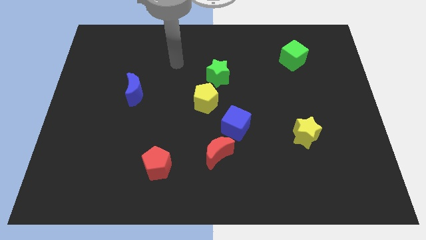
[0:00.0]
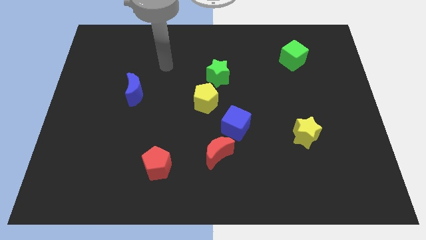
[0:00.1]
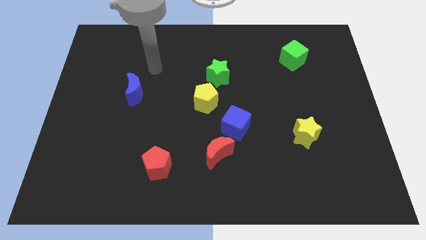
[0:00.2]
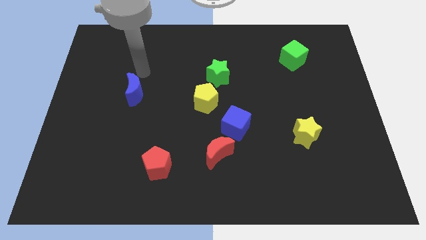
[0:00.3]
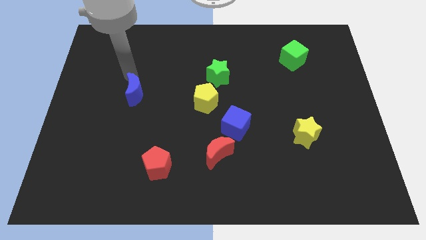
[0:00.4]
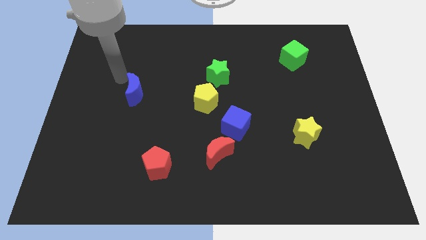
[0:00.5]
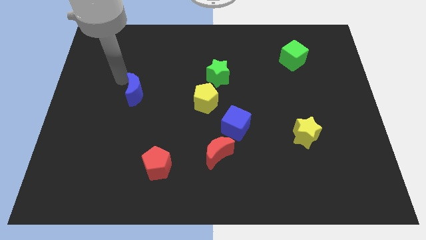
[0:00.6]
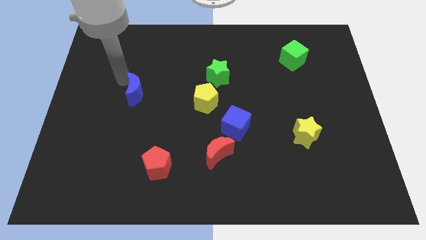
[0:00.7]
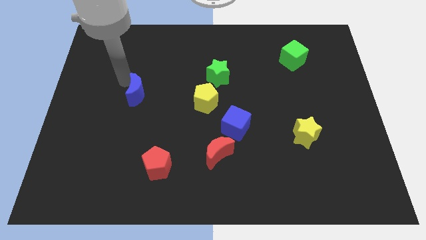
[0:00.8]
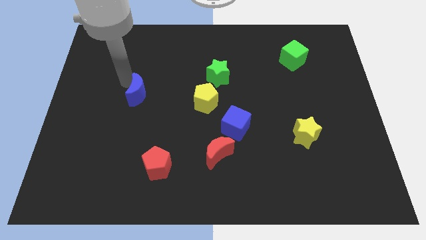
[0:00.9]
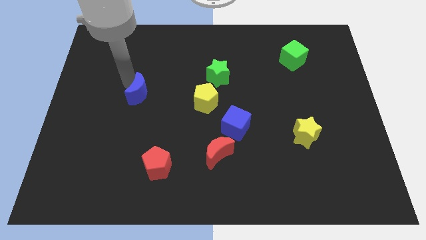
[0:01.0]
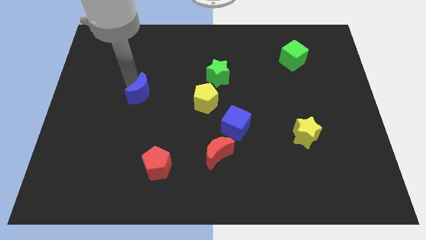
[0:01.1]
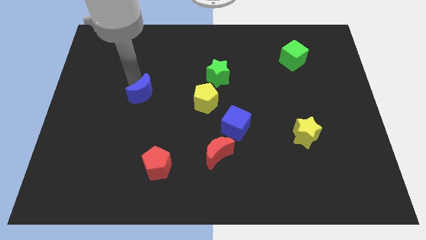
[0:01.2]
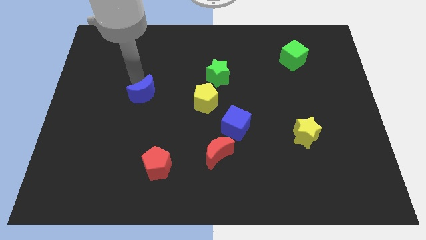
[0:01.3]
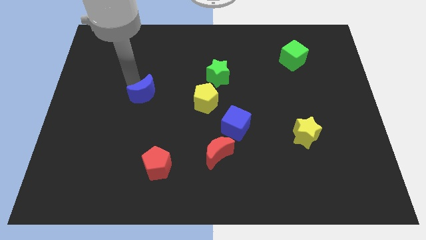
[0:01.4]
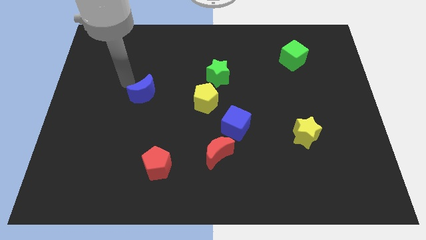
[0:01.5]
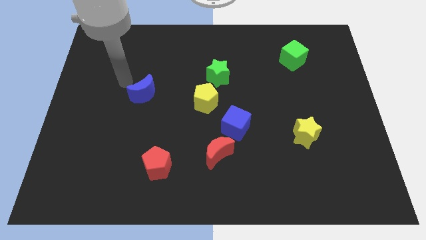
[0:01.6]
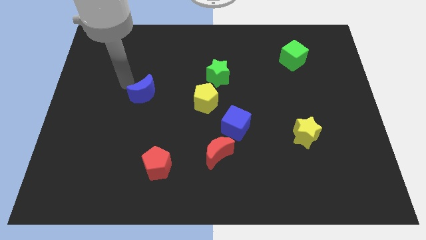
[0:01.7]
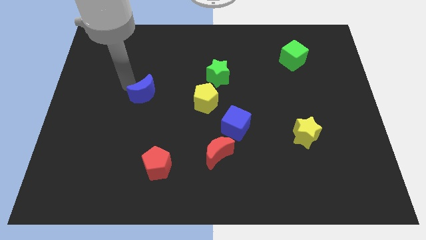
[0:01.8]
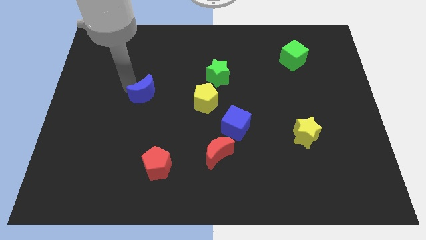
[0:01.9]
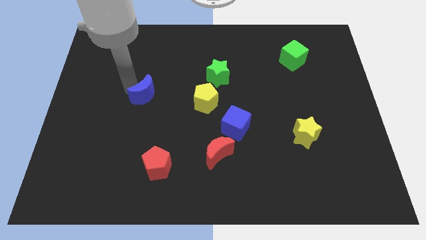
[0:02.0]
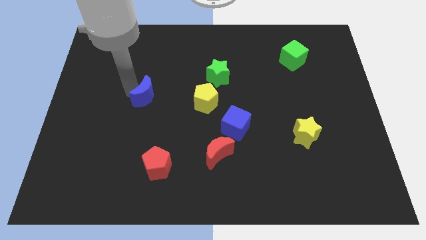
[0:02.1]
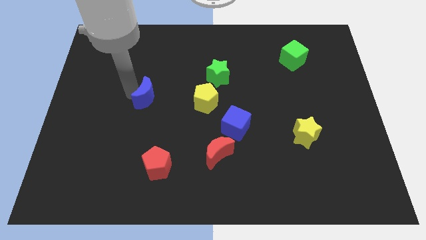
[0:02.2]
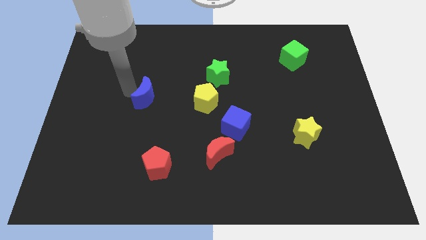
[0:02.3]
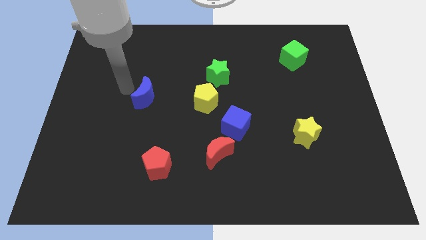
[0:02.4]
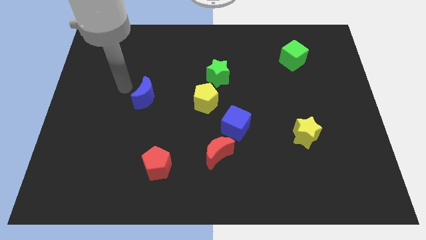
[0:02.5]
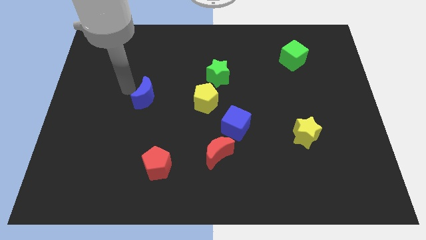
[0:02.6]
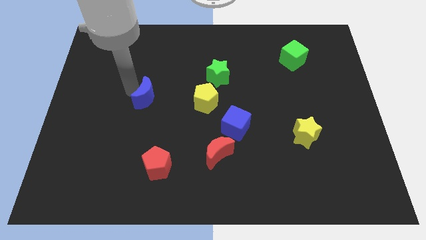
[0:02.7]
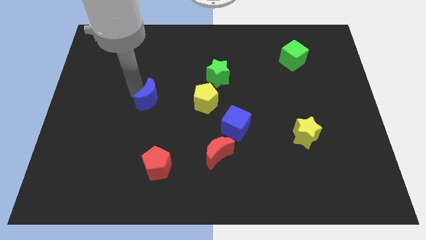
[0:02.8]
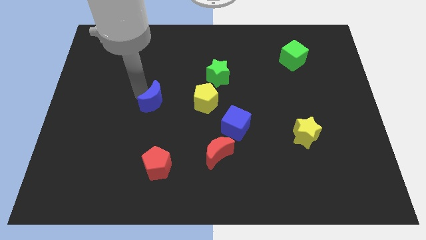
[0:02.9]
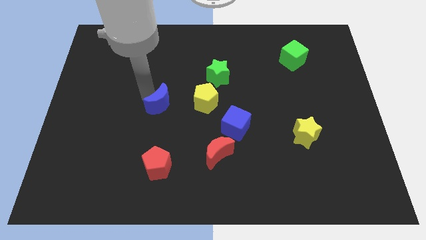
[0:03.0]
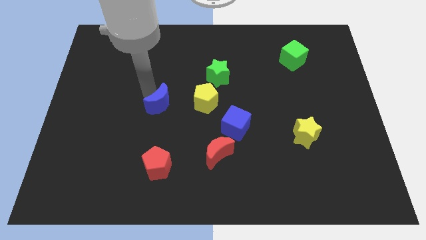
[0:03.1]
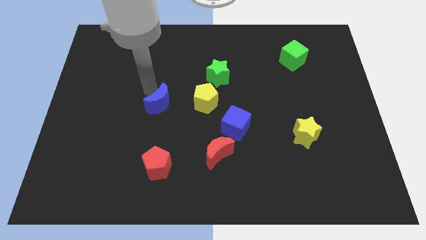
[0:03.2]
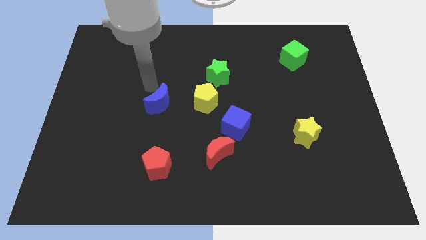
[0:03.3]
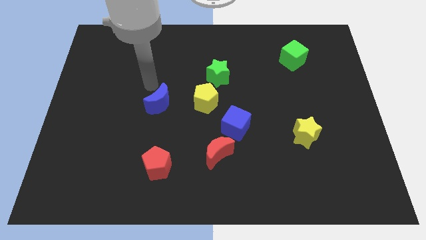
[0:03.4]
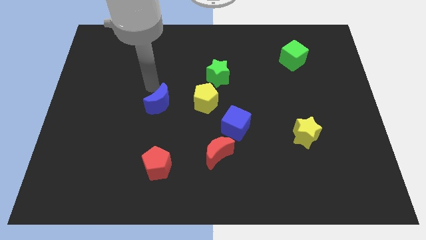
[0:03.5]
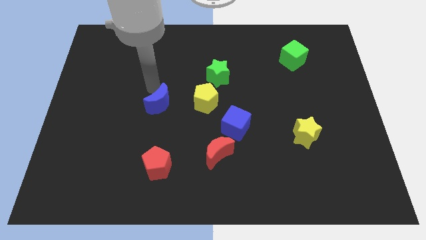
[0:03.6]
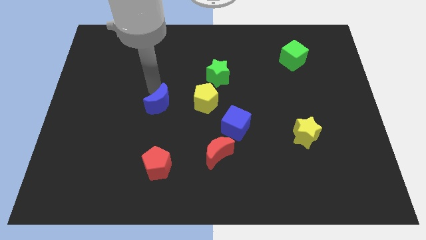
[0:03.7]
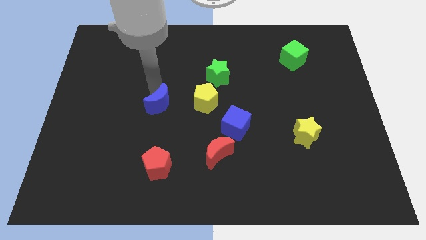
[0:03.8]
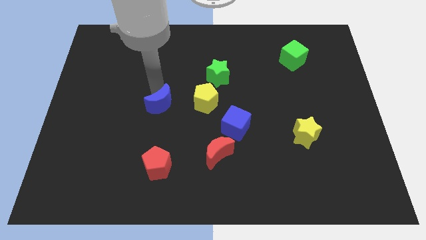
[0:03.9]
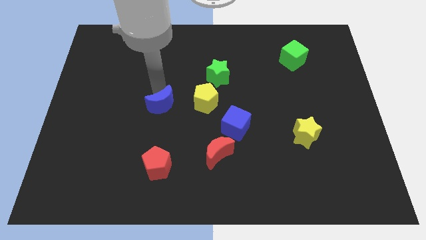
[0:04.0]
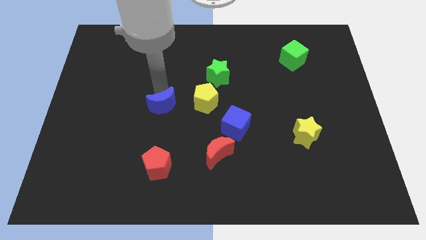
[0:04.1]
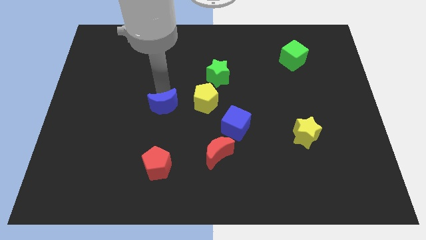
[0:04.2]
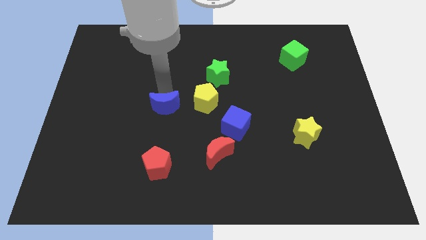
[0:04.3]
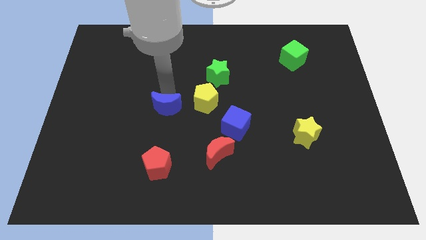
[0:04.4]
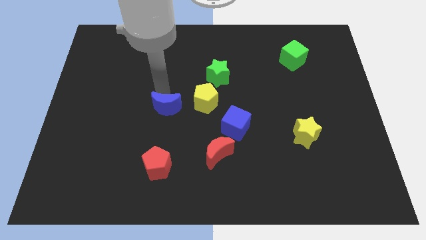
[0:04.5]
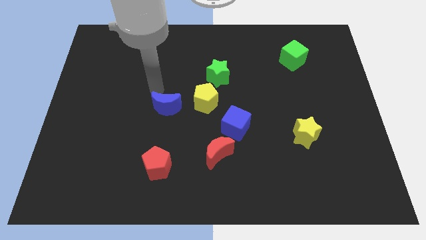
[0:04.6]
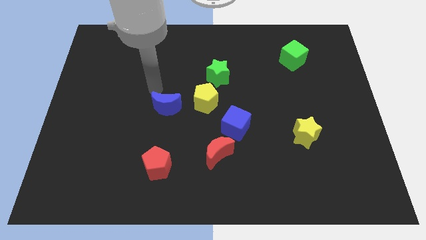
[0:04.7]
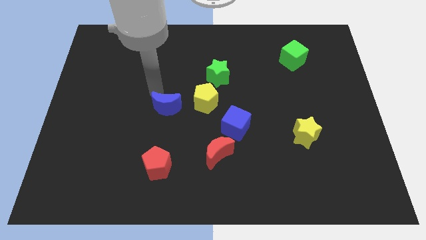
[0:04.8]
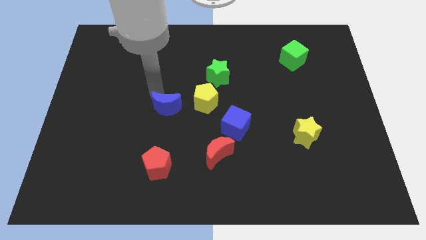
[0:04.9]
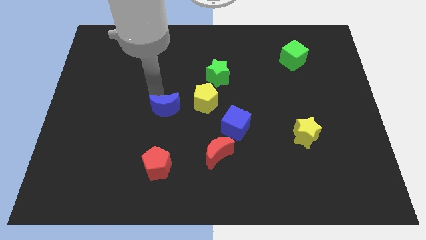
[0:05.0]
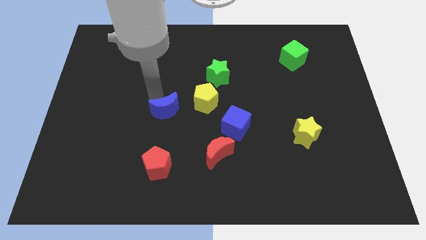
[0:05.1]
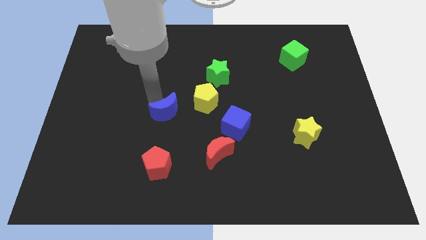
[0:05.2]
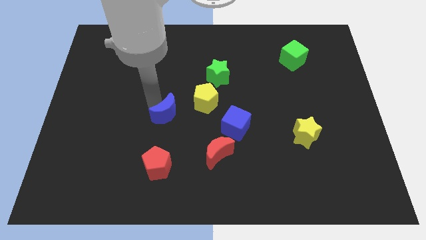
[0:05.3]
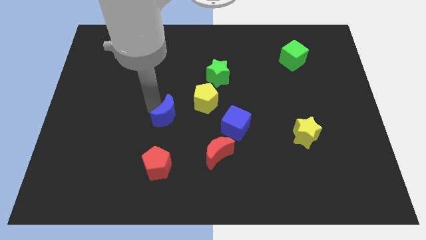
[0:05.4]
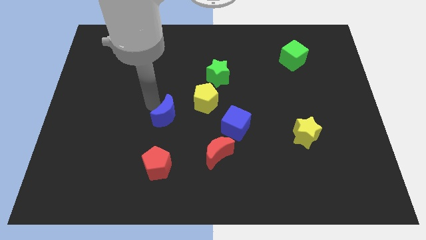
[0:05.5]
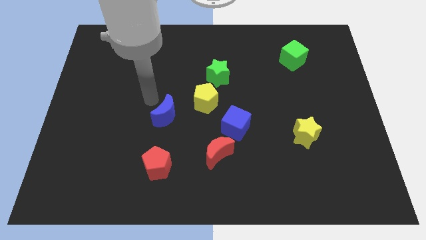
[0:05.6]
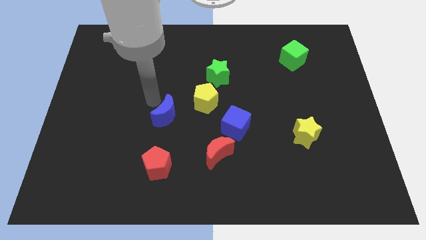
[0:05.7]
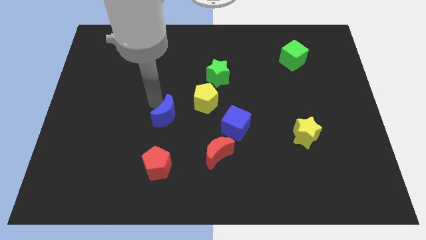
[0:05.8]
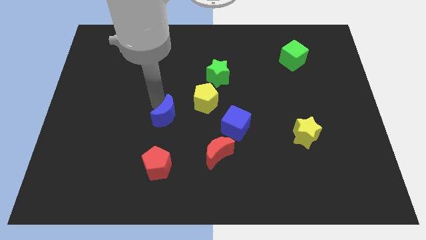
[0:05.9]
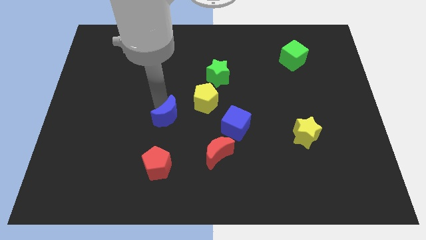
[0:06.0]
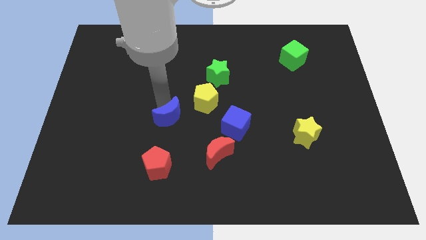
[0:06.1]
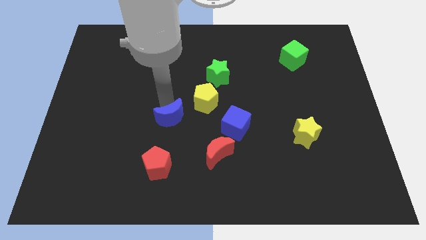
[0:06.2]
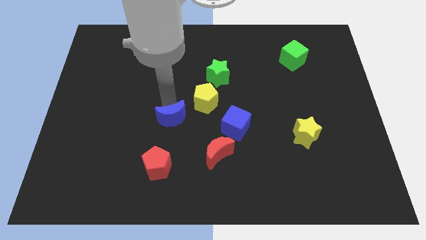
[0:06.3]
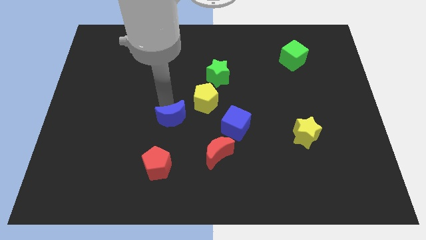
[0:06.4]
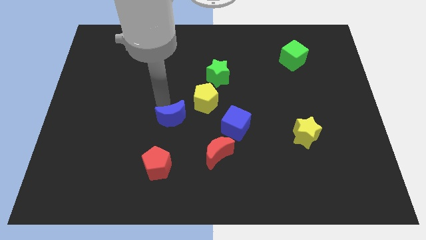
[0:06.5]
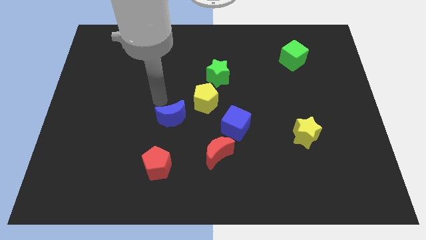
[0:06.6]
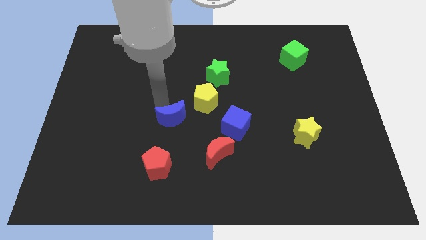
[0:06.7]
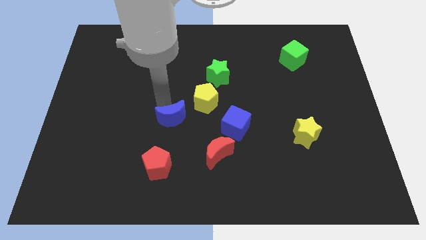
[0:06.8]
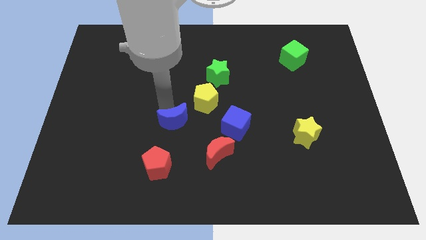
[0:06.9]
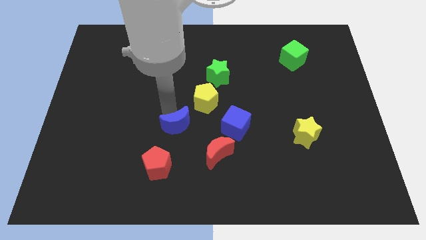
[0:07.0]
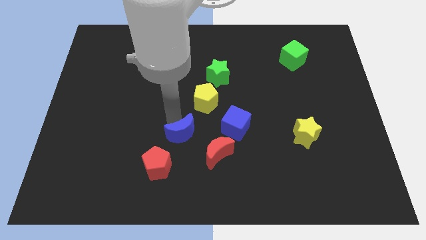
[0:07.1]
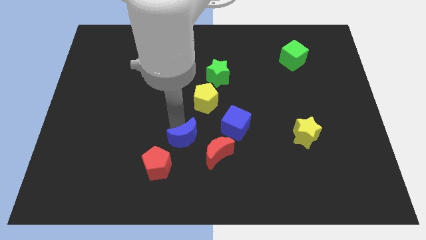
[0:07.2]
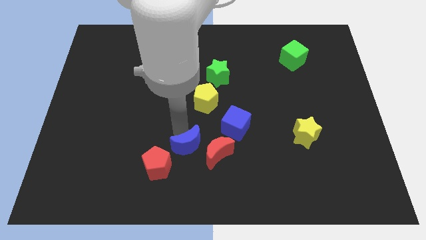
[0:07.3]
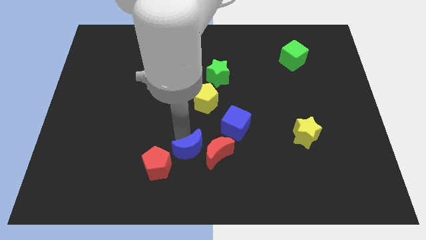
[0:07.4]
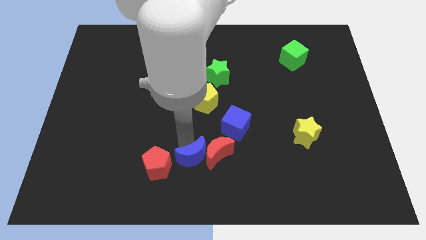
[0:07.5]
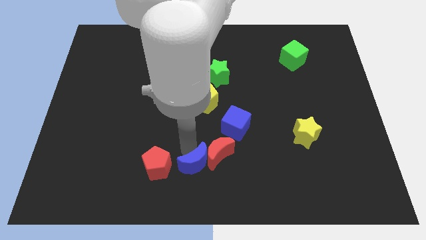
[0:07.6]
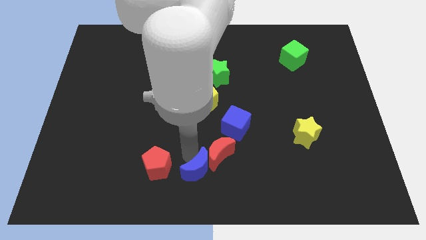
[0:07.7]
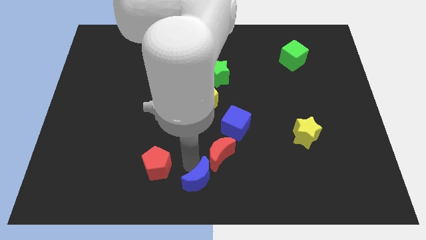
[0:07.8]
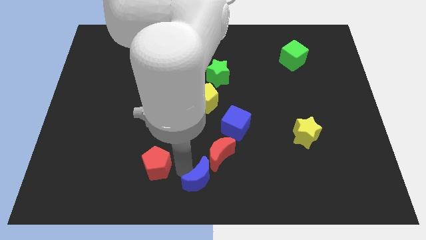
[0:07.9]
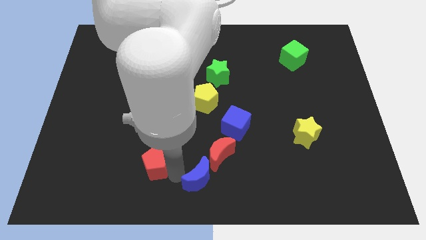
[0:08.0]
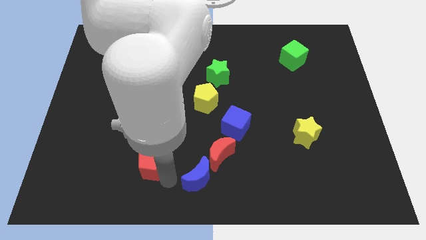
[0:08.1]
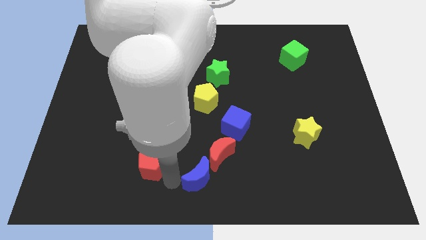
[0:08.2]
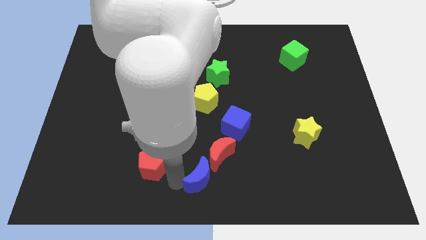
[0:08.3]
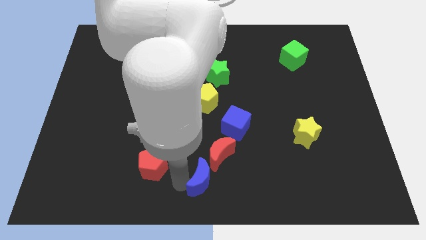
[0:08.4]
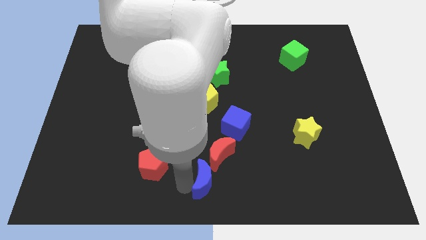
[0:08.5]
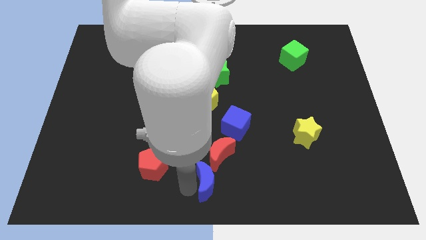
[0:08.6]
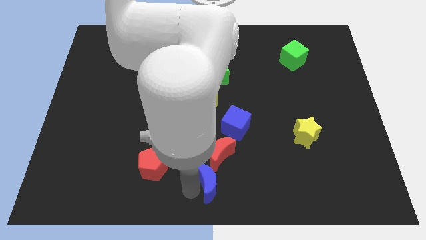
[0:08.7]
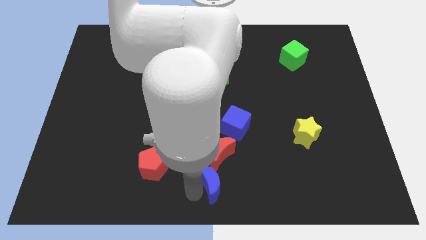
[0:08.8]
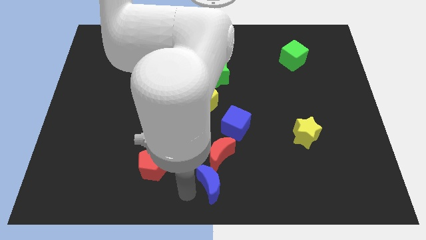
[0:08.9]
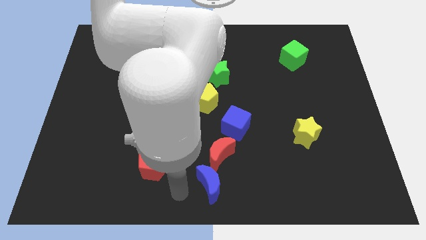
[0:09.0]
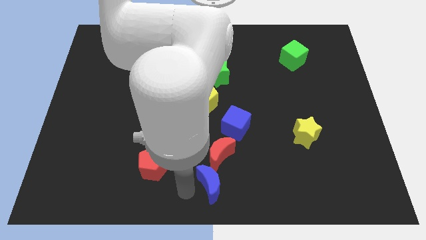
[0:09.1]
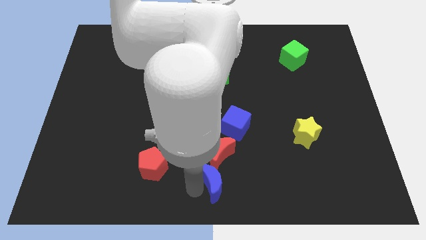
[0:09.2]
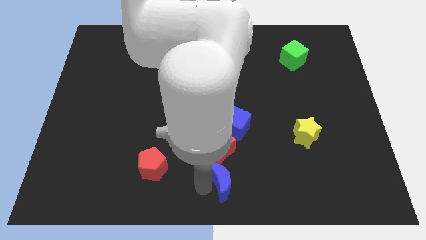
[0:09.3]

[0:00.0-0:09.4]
push the blue moon to the bottom right side of the red moon
